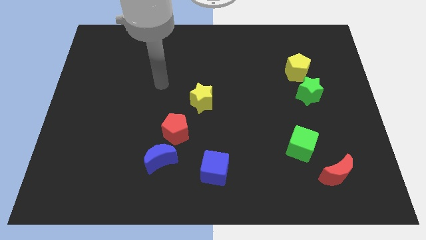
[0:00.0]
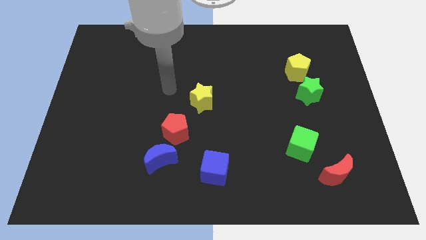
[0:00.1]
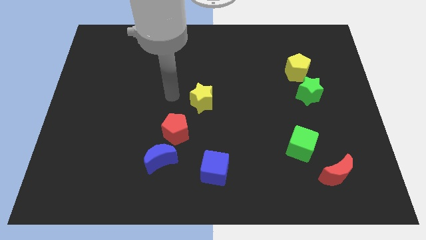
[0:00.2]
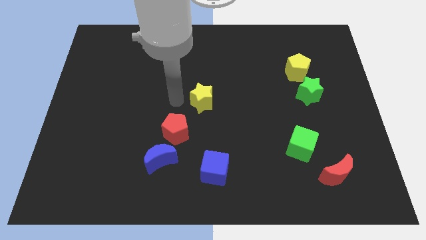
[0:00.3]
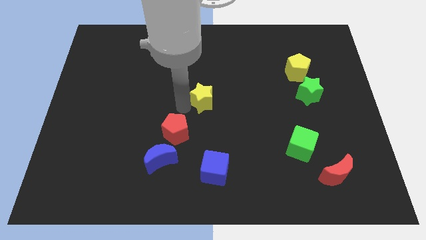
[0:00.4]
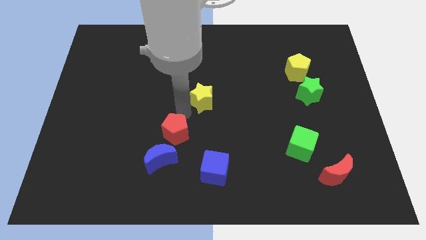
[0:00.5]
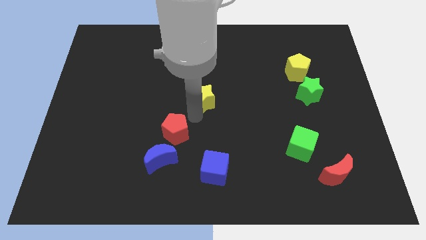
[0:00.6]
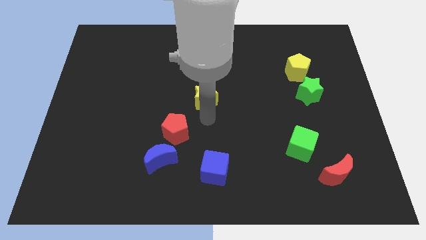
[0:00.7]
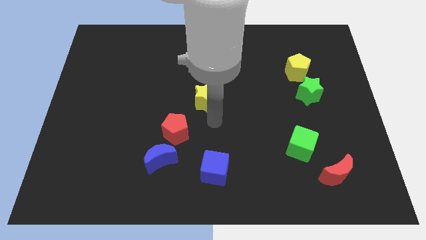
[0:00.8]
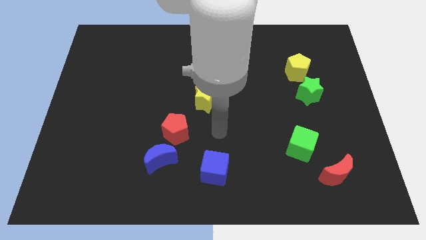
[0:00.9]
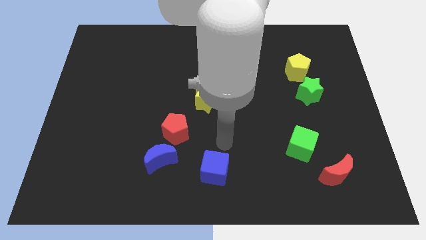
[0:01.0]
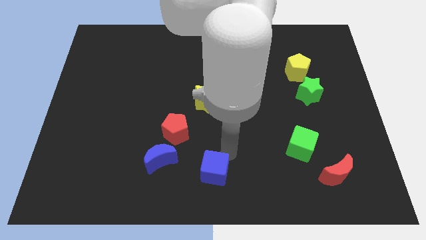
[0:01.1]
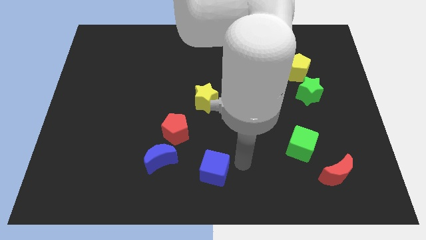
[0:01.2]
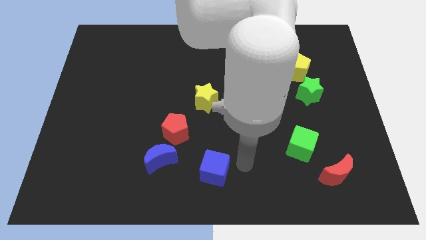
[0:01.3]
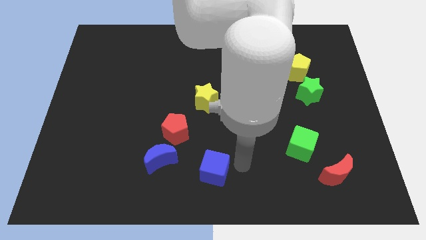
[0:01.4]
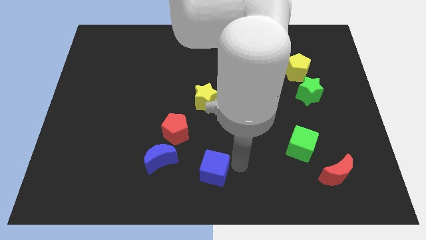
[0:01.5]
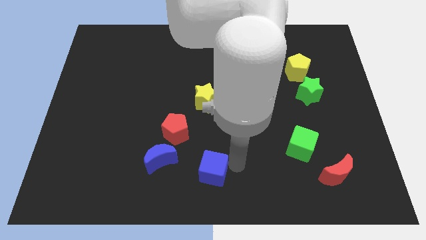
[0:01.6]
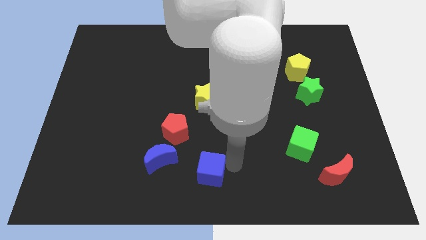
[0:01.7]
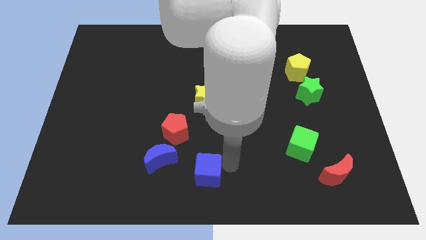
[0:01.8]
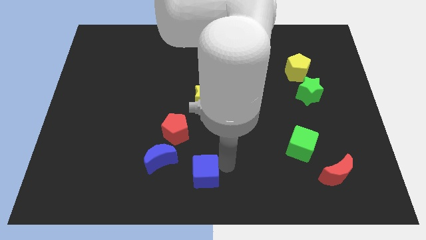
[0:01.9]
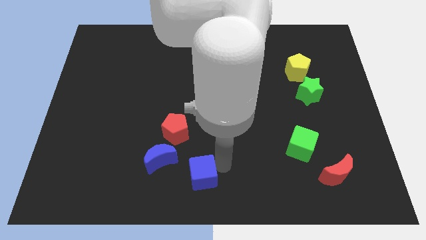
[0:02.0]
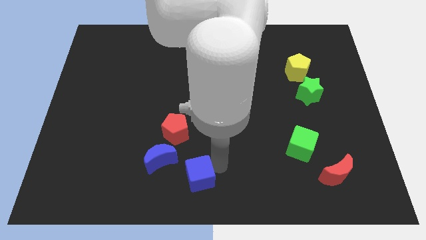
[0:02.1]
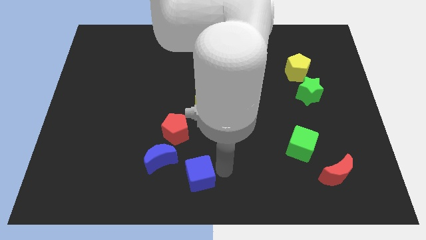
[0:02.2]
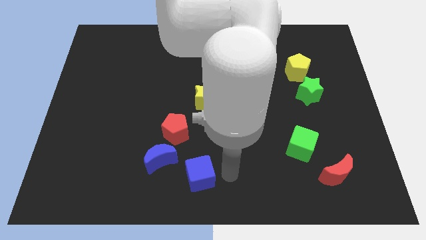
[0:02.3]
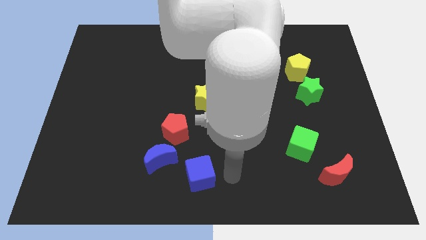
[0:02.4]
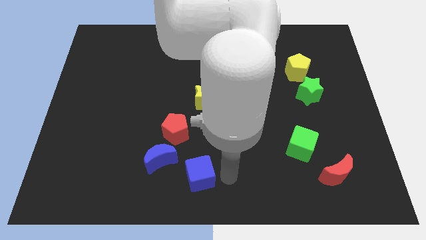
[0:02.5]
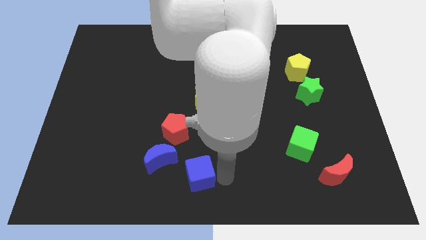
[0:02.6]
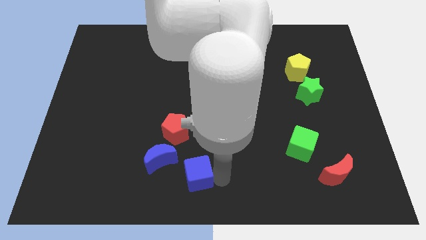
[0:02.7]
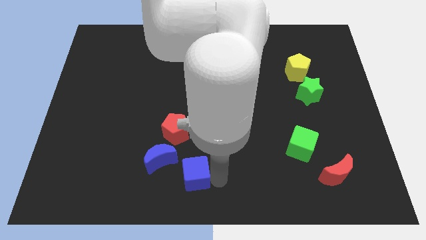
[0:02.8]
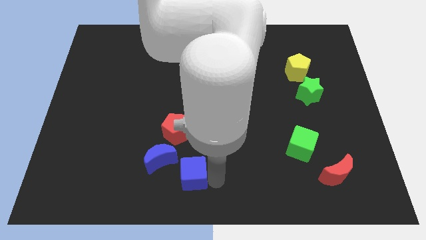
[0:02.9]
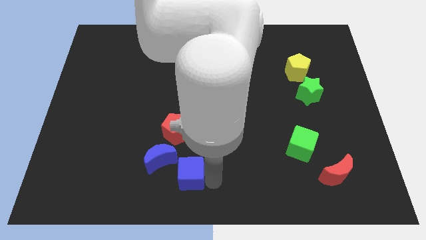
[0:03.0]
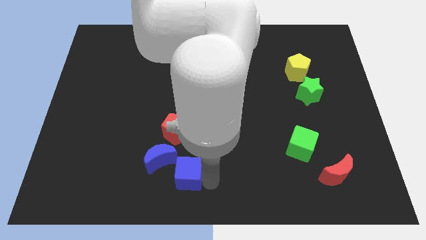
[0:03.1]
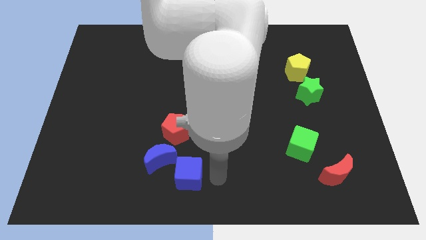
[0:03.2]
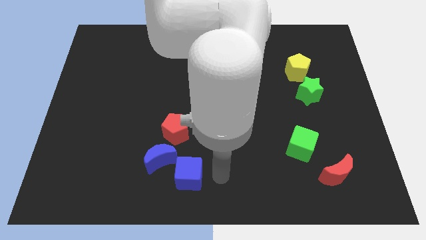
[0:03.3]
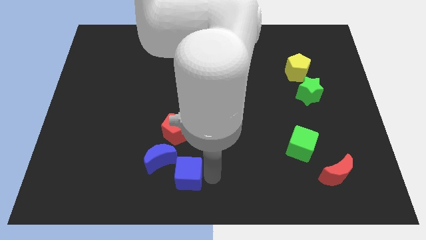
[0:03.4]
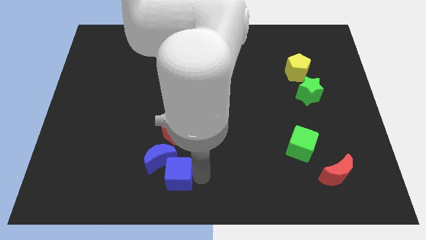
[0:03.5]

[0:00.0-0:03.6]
move the blue cube a little left

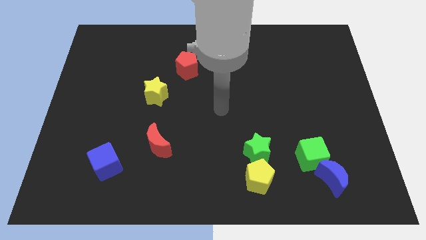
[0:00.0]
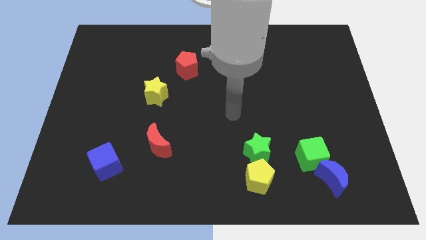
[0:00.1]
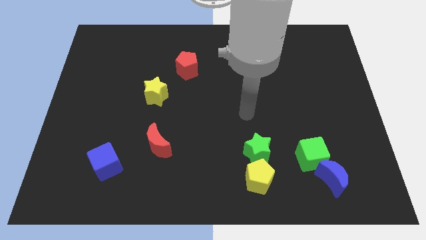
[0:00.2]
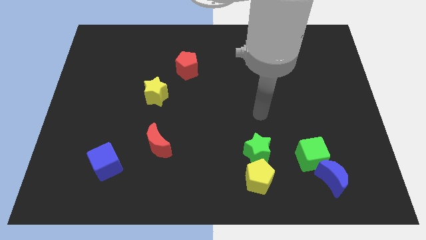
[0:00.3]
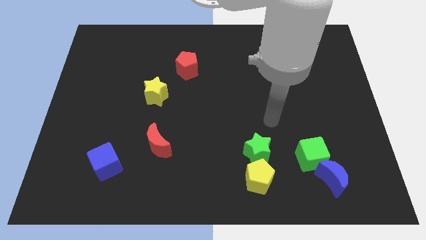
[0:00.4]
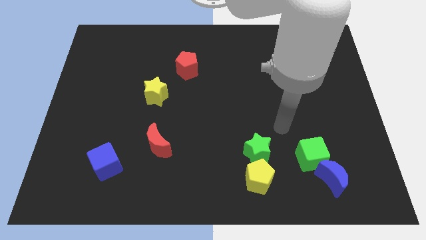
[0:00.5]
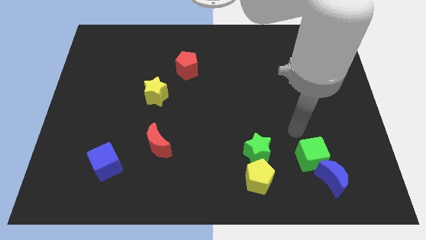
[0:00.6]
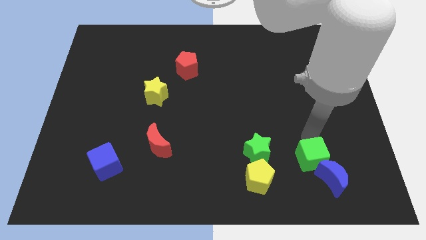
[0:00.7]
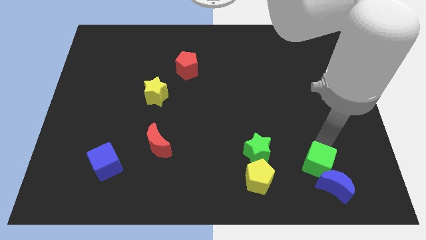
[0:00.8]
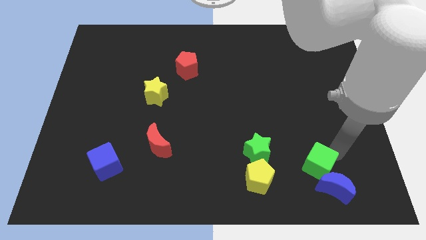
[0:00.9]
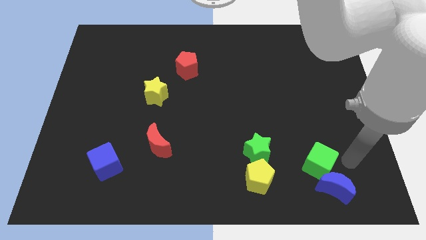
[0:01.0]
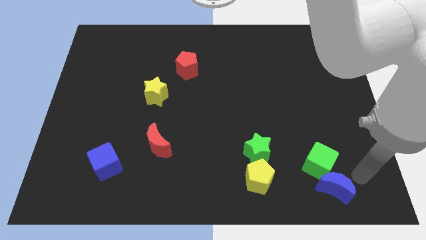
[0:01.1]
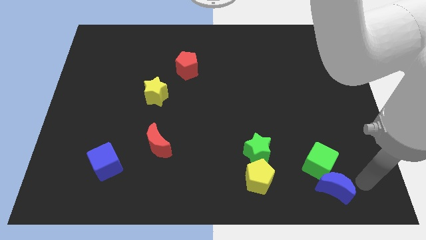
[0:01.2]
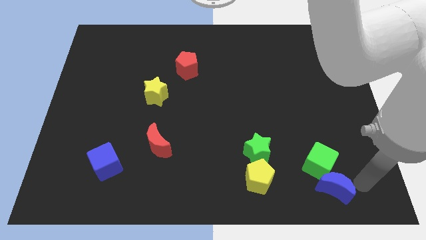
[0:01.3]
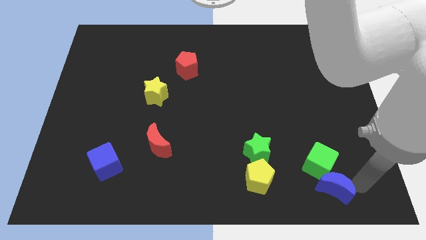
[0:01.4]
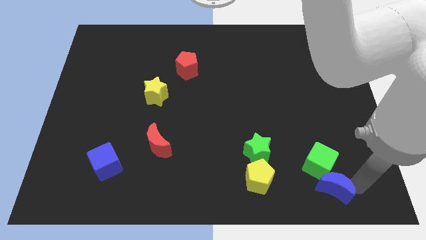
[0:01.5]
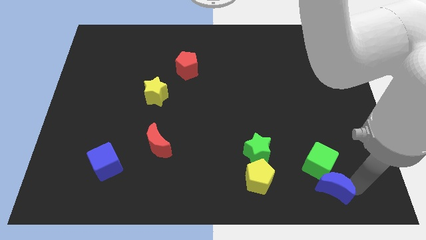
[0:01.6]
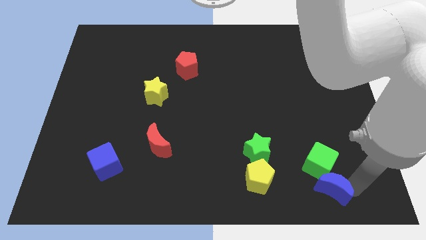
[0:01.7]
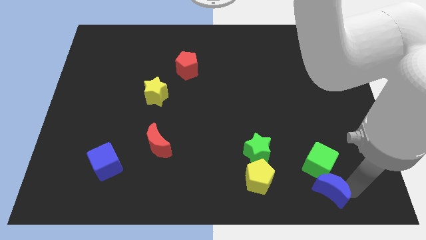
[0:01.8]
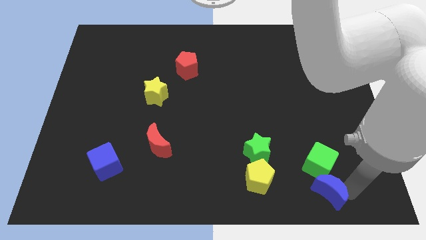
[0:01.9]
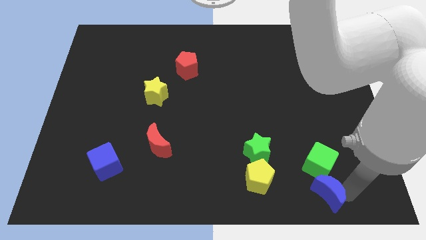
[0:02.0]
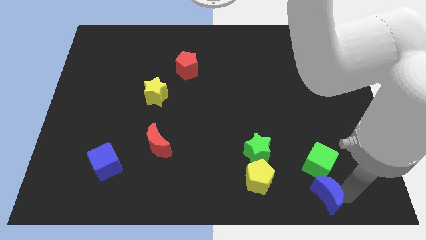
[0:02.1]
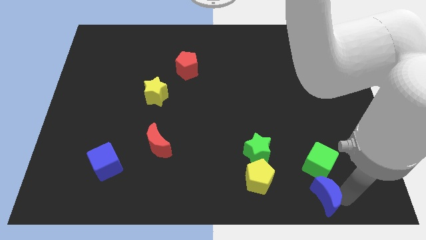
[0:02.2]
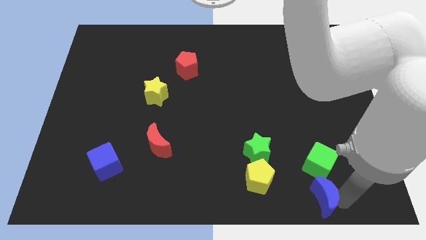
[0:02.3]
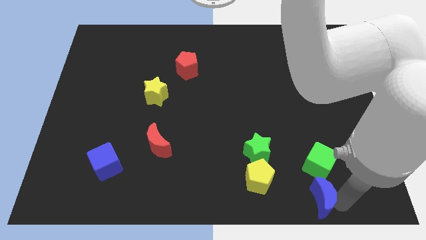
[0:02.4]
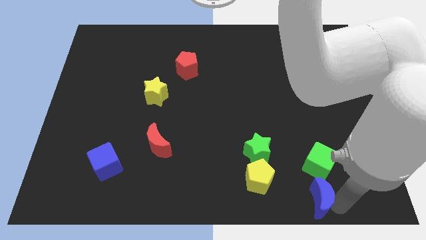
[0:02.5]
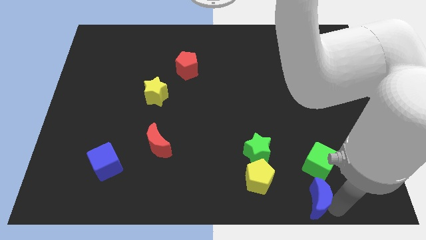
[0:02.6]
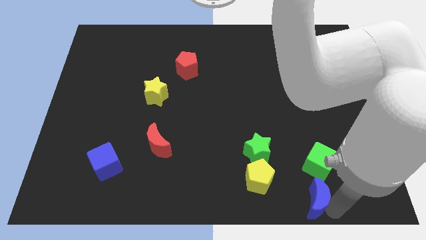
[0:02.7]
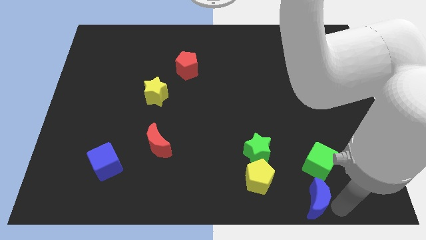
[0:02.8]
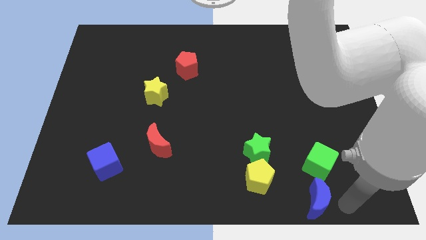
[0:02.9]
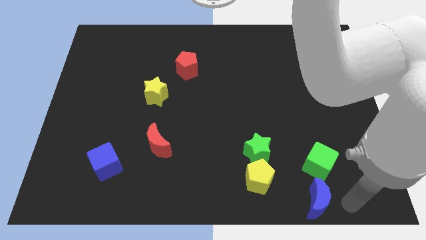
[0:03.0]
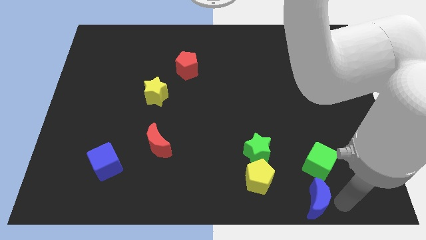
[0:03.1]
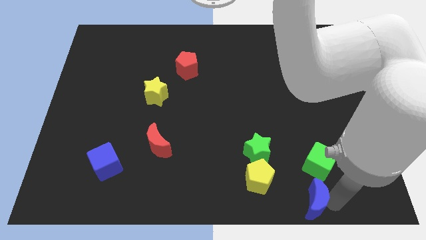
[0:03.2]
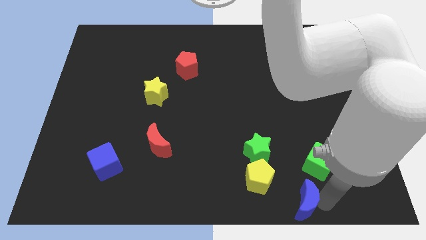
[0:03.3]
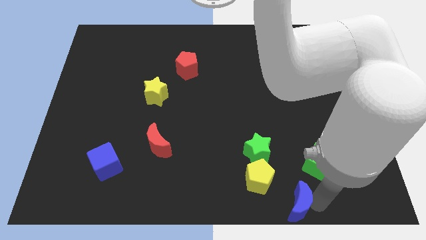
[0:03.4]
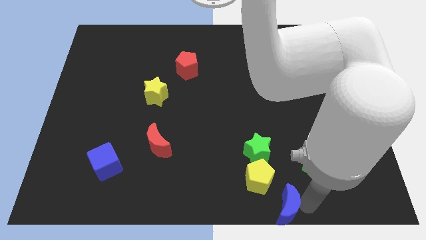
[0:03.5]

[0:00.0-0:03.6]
slide the blue moon left a bit

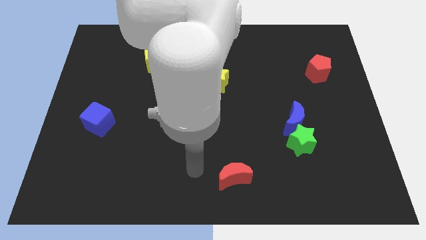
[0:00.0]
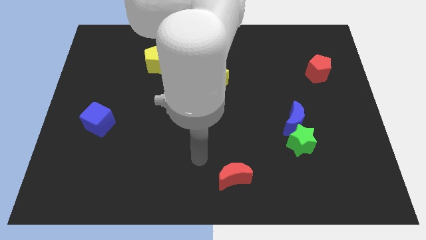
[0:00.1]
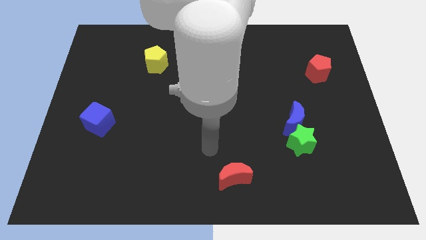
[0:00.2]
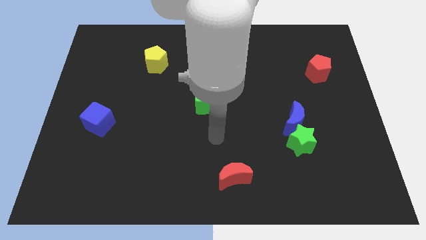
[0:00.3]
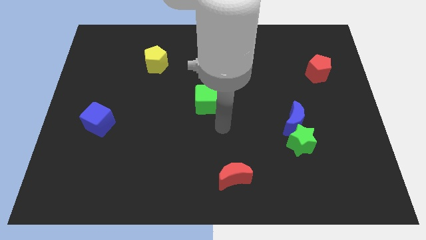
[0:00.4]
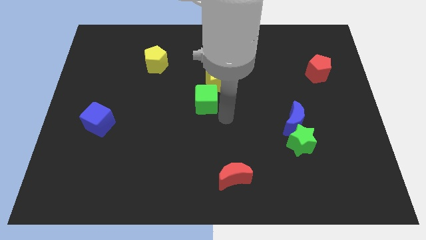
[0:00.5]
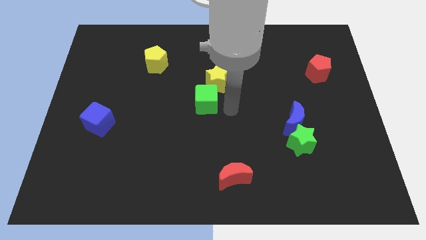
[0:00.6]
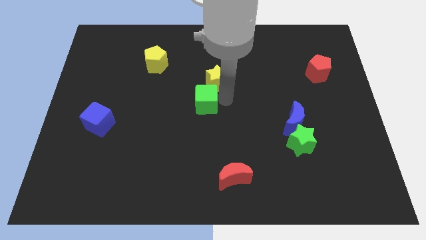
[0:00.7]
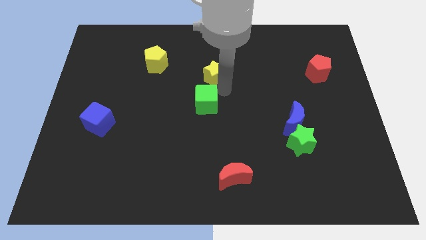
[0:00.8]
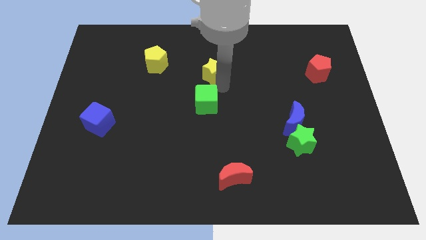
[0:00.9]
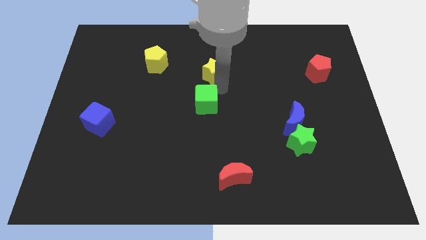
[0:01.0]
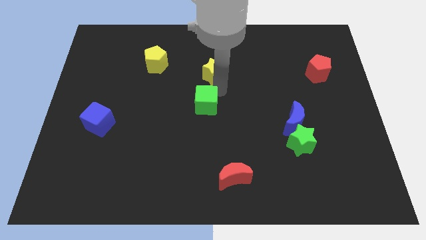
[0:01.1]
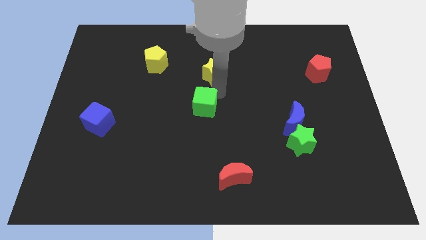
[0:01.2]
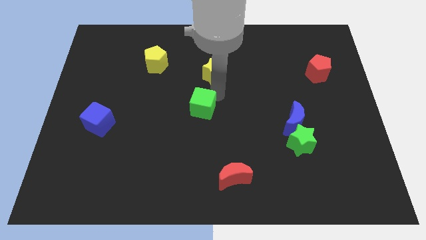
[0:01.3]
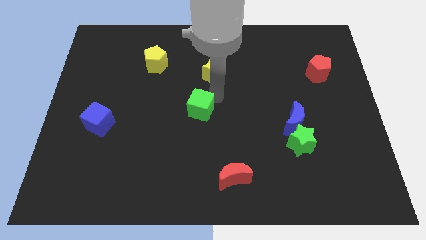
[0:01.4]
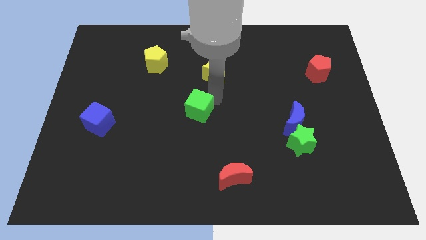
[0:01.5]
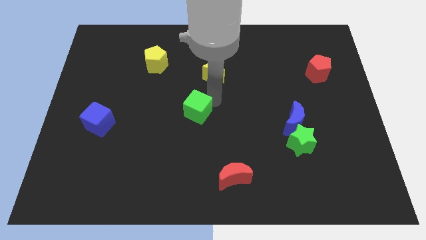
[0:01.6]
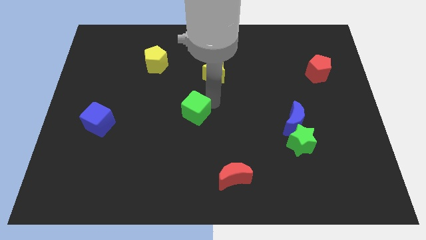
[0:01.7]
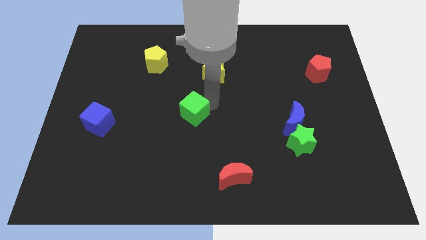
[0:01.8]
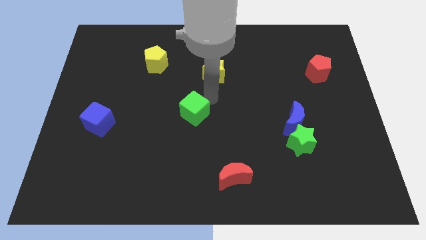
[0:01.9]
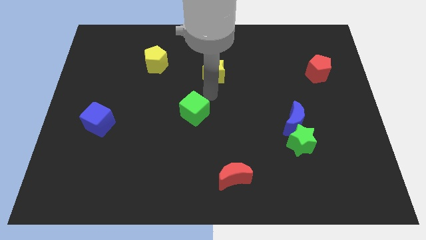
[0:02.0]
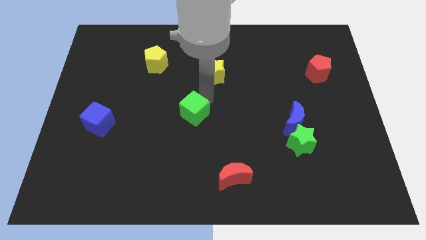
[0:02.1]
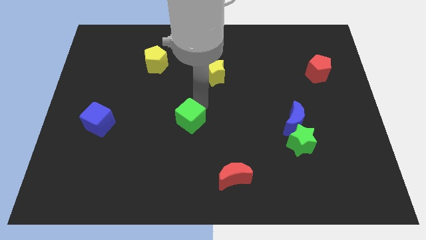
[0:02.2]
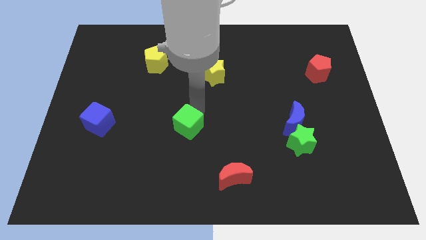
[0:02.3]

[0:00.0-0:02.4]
push the green cube a little bit diagonally down and left
